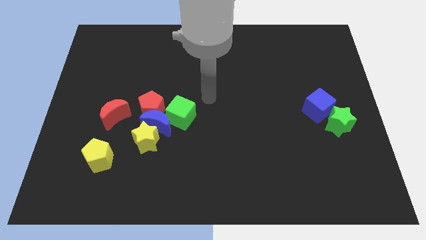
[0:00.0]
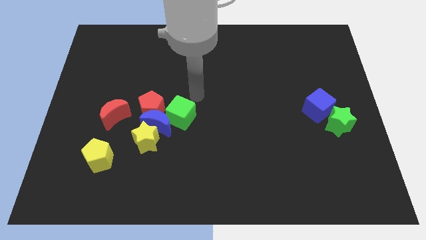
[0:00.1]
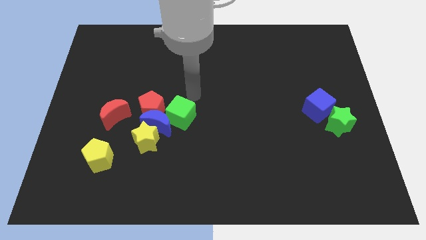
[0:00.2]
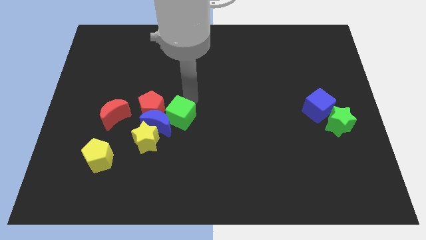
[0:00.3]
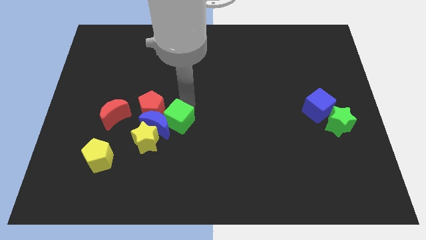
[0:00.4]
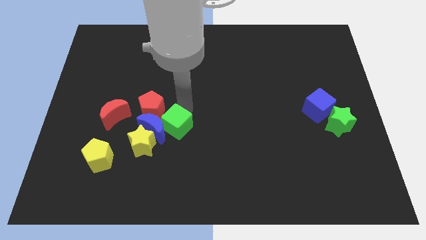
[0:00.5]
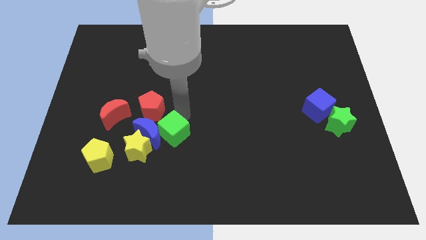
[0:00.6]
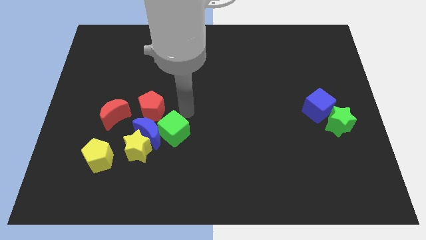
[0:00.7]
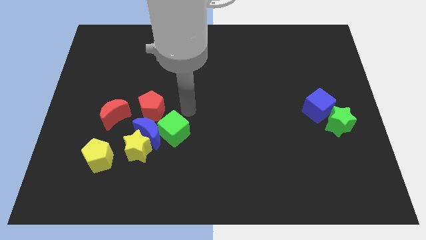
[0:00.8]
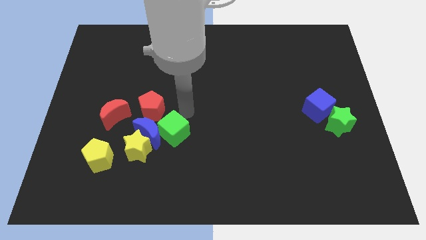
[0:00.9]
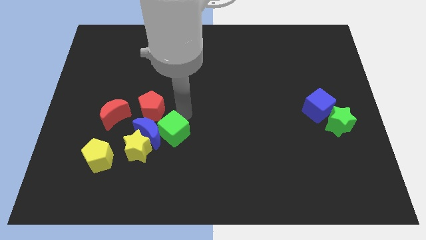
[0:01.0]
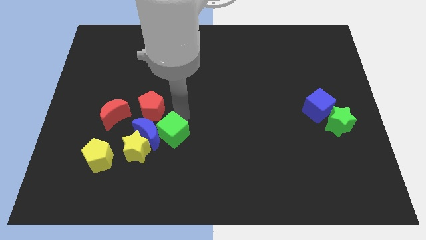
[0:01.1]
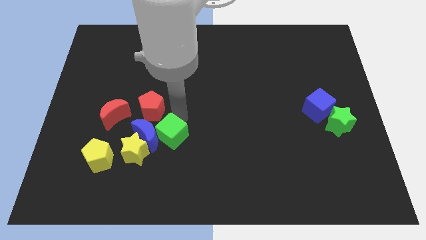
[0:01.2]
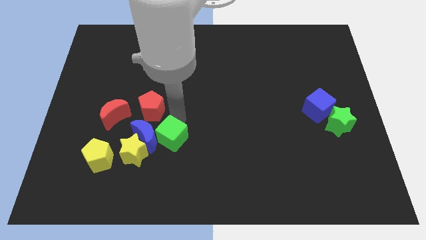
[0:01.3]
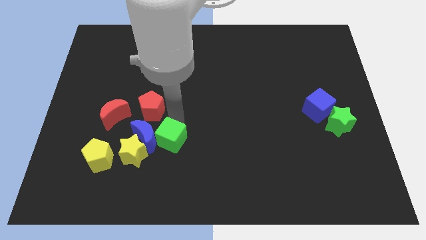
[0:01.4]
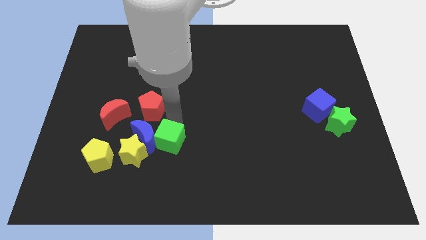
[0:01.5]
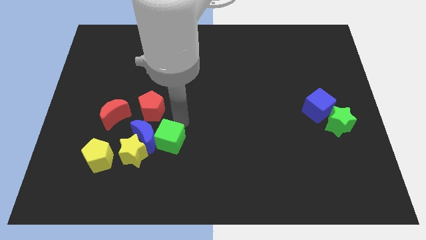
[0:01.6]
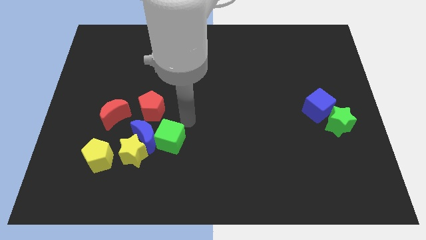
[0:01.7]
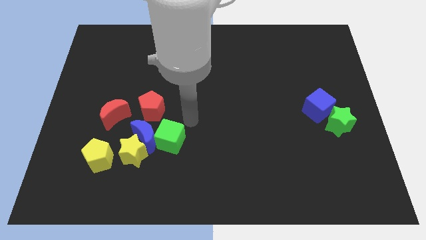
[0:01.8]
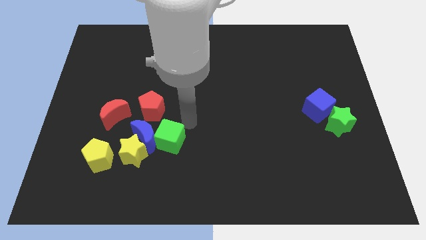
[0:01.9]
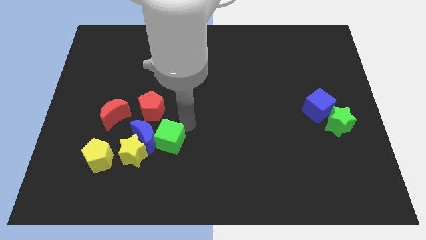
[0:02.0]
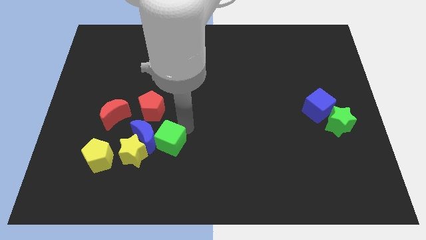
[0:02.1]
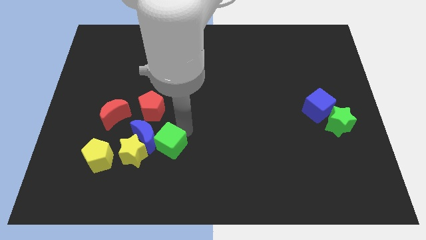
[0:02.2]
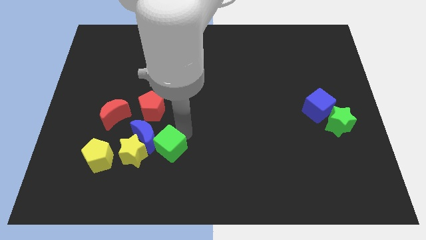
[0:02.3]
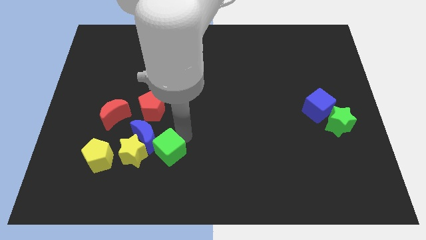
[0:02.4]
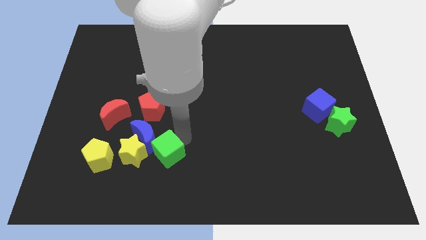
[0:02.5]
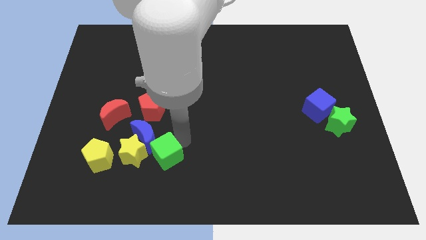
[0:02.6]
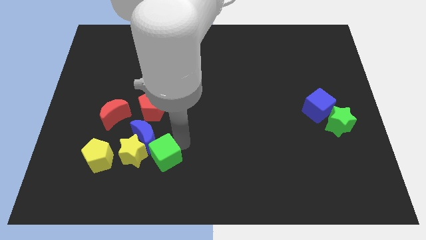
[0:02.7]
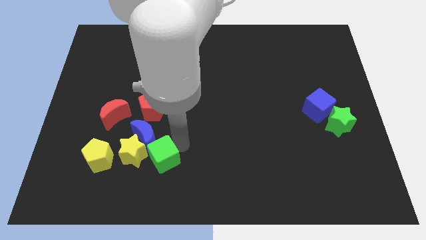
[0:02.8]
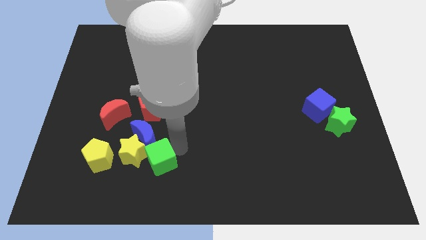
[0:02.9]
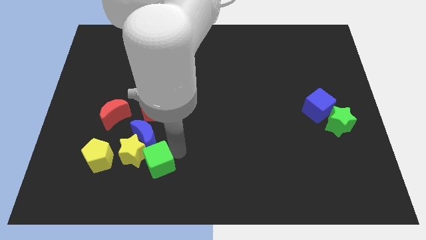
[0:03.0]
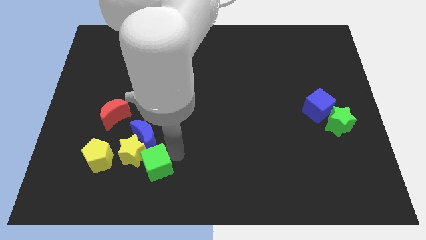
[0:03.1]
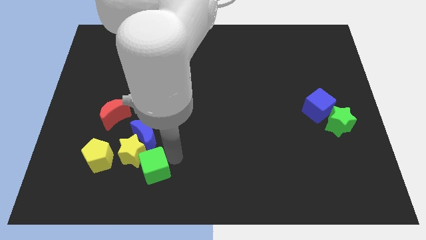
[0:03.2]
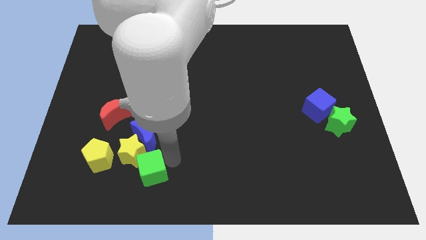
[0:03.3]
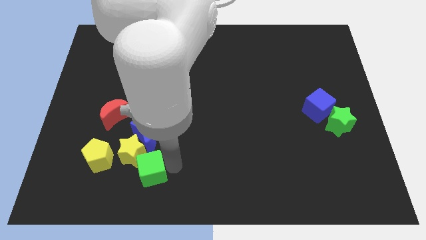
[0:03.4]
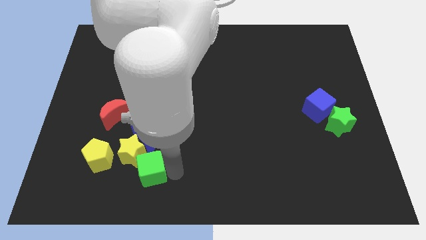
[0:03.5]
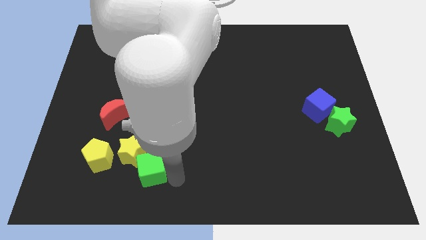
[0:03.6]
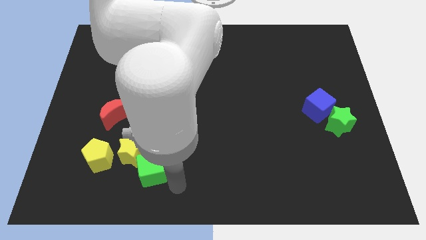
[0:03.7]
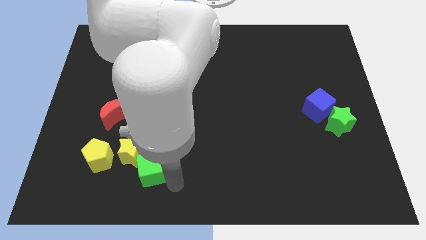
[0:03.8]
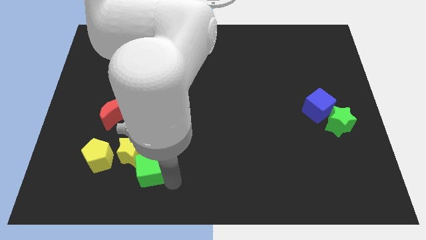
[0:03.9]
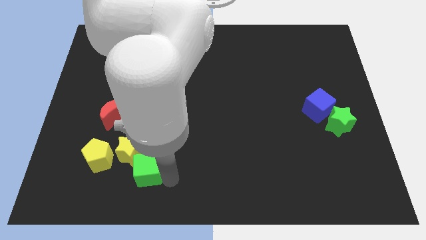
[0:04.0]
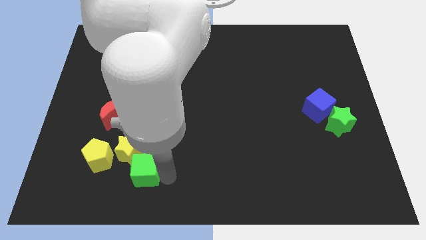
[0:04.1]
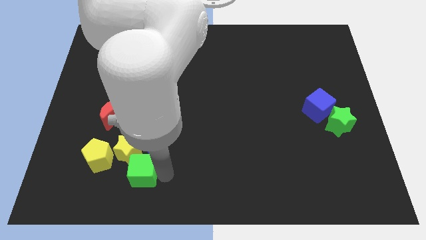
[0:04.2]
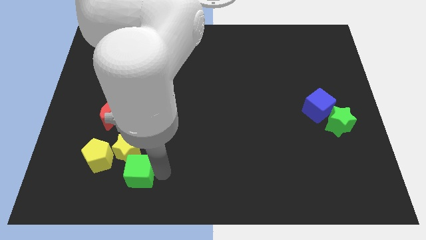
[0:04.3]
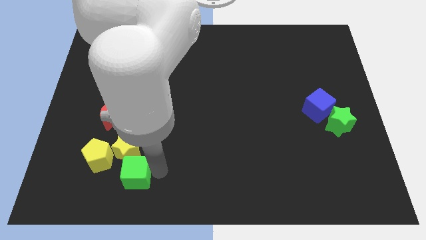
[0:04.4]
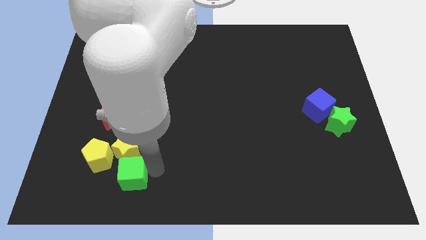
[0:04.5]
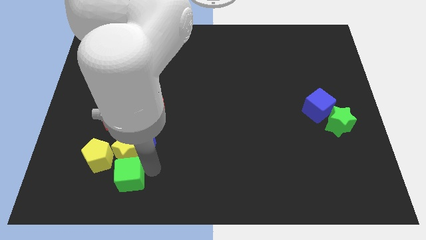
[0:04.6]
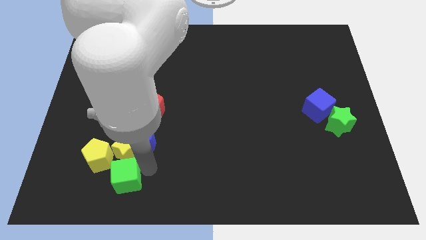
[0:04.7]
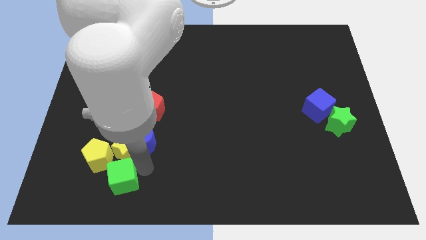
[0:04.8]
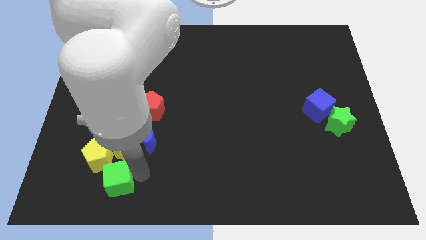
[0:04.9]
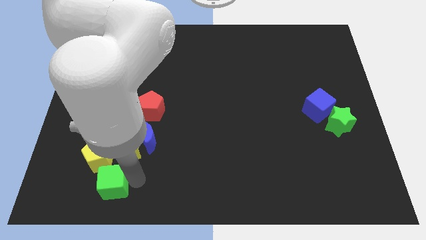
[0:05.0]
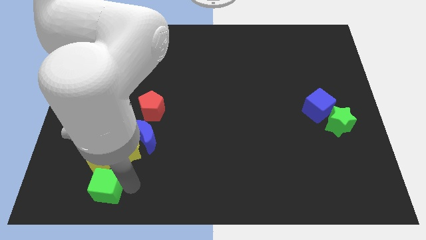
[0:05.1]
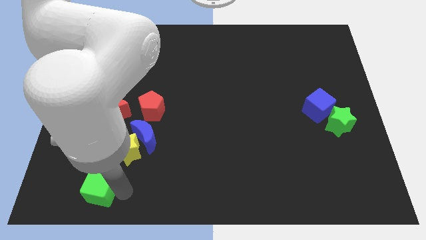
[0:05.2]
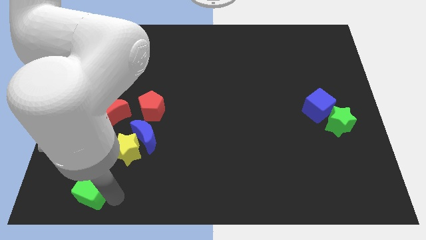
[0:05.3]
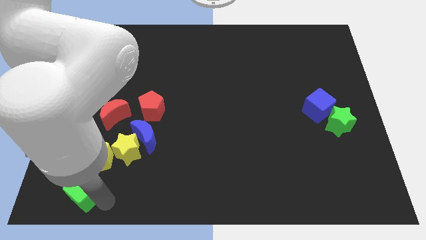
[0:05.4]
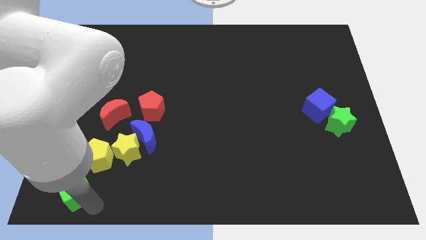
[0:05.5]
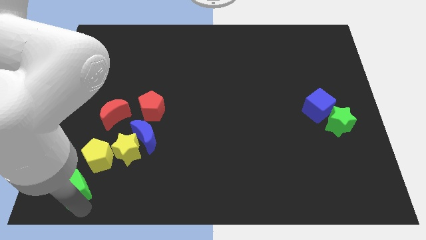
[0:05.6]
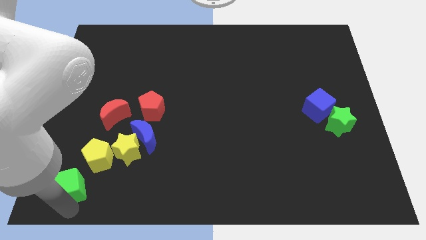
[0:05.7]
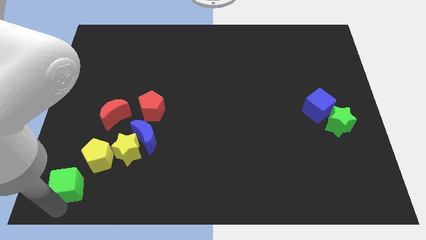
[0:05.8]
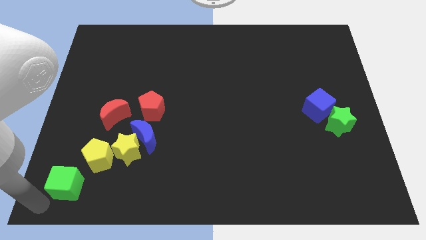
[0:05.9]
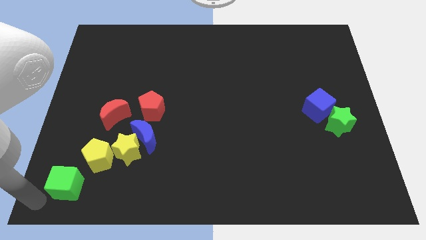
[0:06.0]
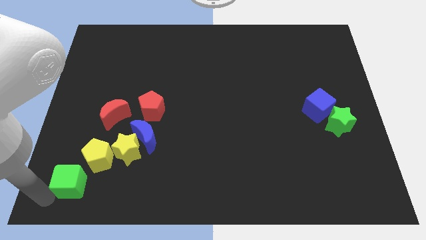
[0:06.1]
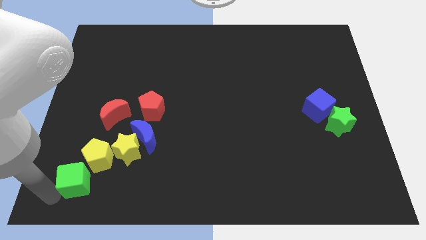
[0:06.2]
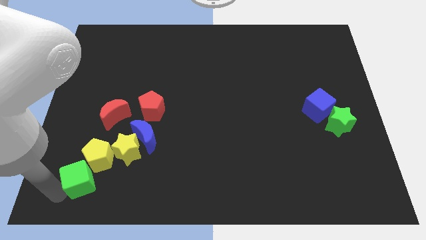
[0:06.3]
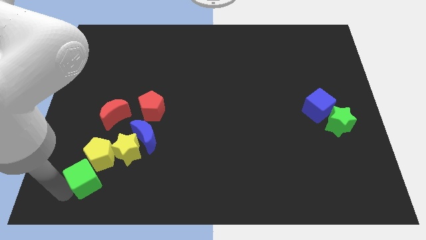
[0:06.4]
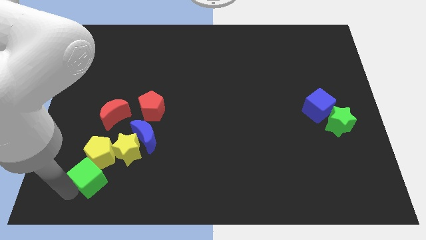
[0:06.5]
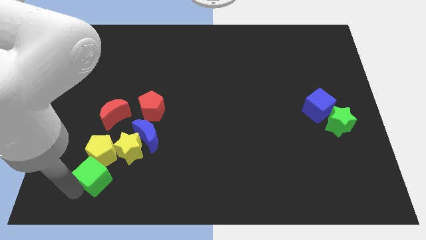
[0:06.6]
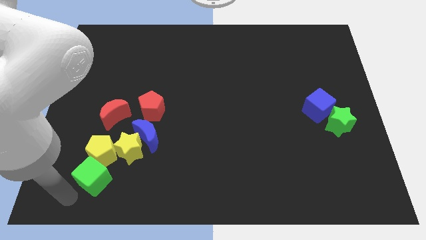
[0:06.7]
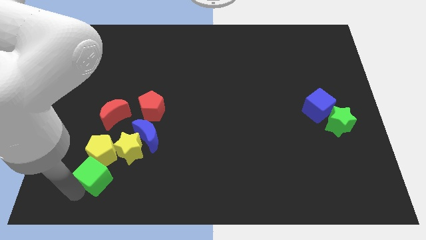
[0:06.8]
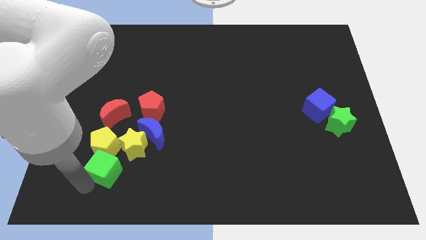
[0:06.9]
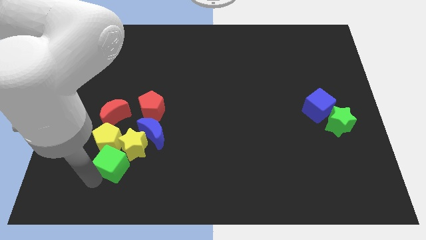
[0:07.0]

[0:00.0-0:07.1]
move the green cube to the left side of the yellow star

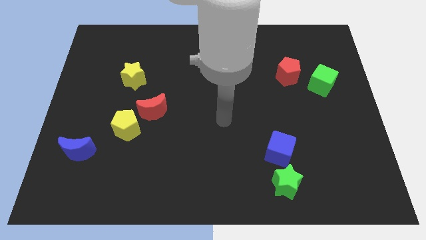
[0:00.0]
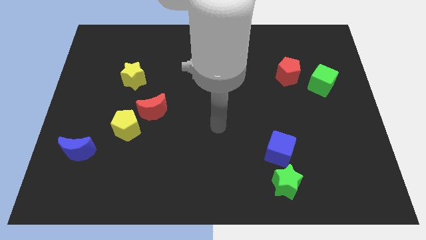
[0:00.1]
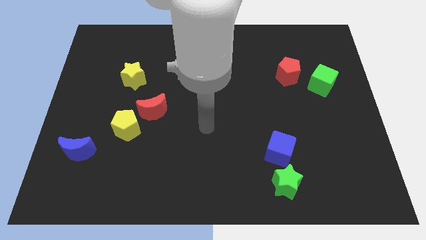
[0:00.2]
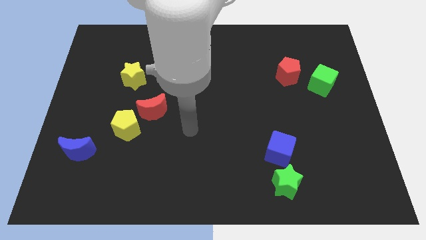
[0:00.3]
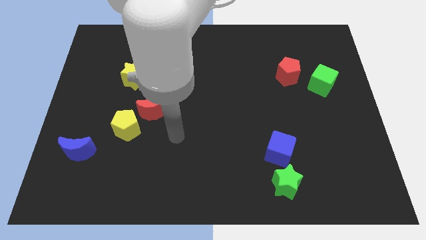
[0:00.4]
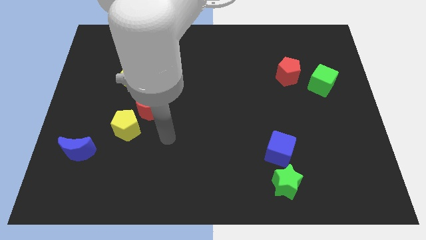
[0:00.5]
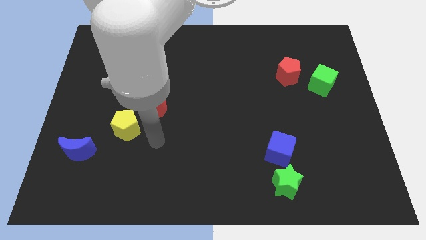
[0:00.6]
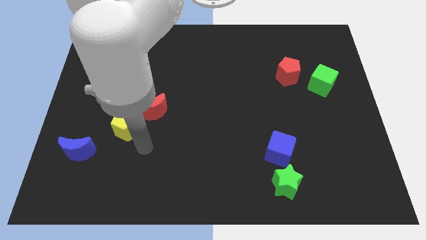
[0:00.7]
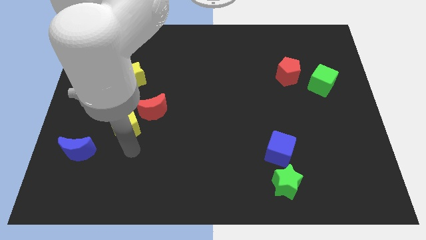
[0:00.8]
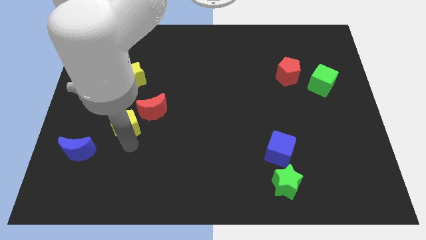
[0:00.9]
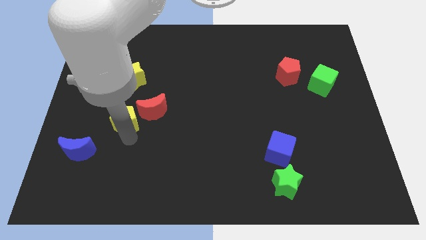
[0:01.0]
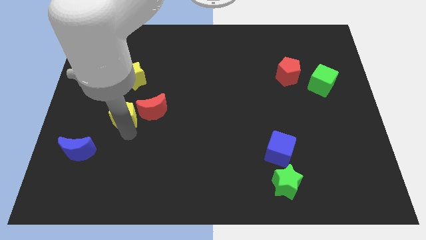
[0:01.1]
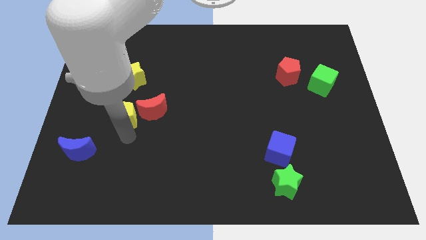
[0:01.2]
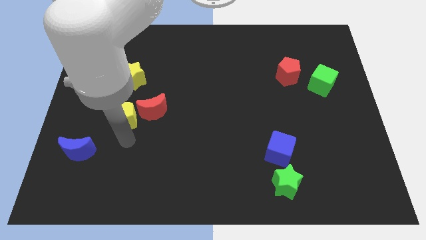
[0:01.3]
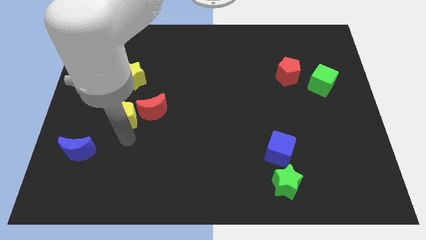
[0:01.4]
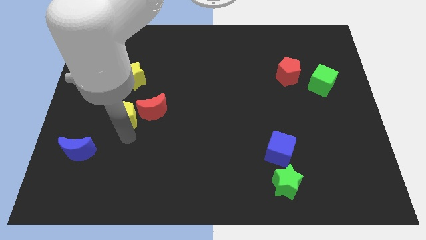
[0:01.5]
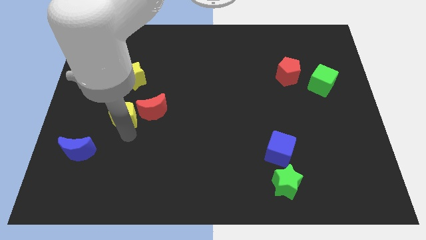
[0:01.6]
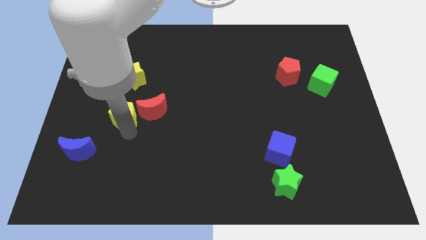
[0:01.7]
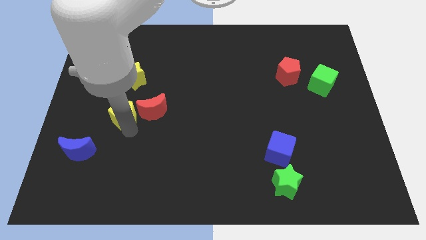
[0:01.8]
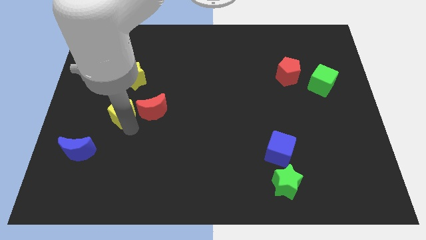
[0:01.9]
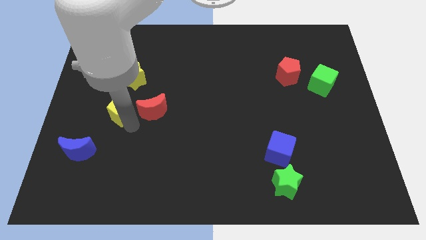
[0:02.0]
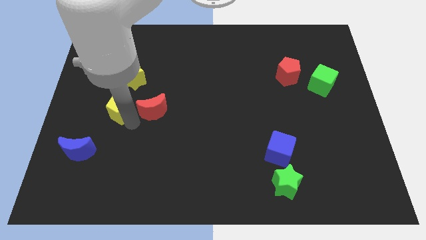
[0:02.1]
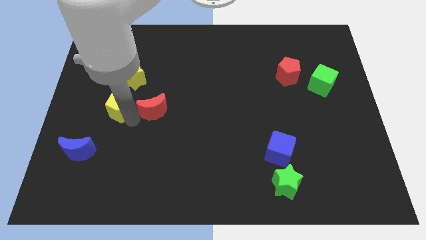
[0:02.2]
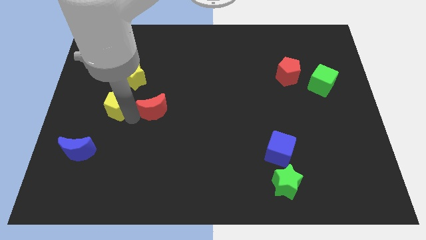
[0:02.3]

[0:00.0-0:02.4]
move the yellow pentagon to the bottom left side of the yellow star
